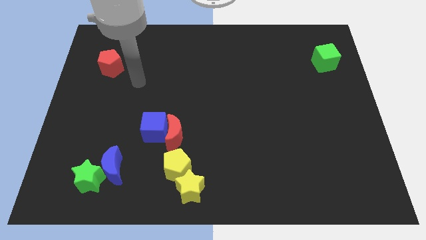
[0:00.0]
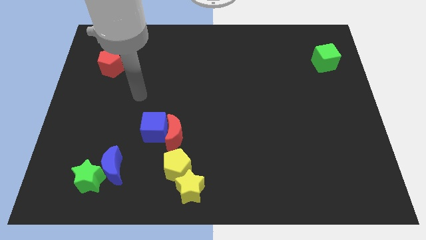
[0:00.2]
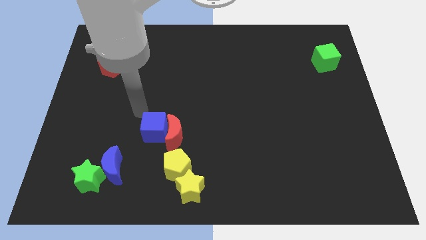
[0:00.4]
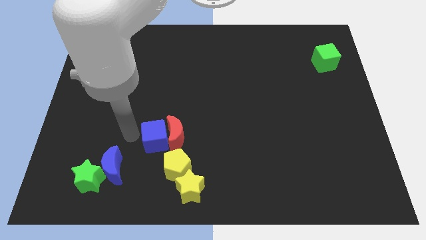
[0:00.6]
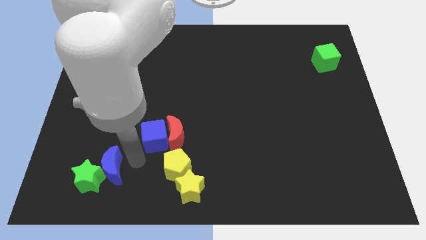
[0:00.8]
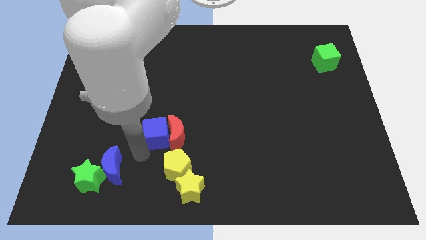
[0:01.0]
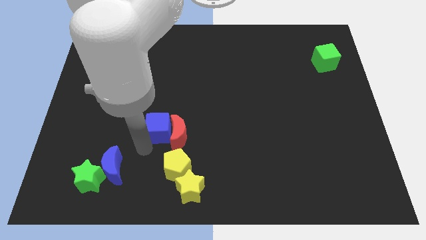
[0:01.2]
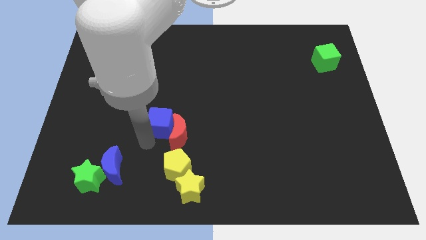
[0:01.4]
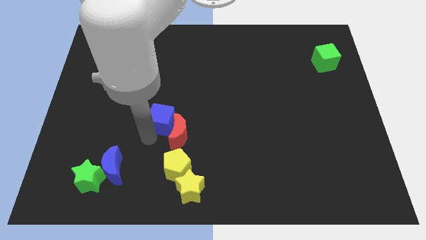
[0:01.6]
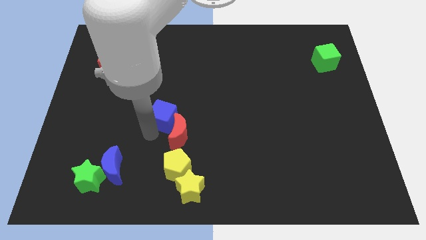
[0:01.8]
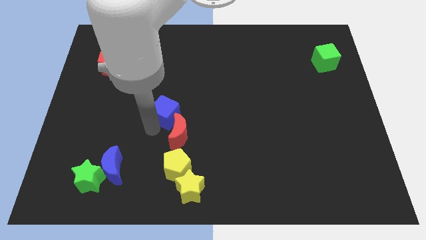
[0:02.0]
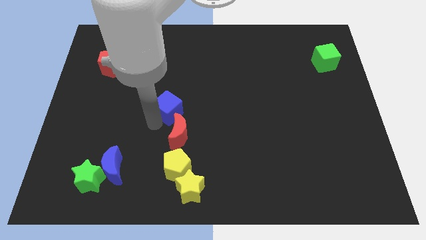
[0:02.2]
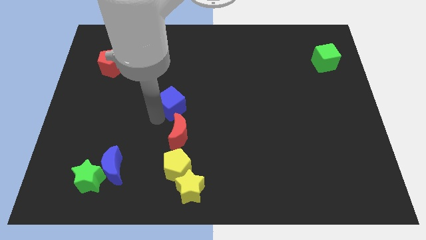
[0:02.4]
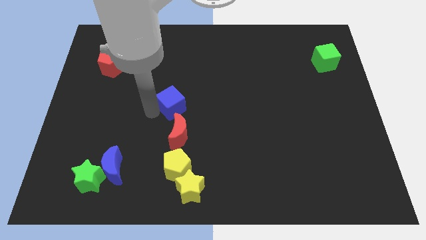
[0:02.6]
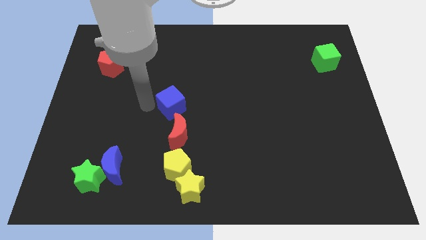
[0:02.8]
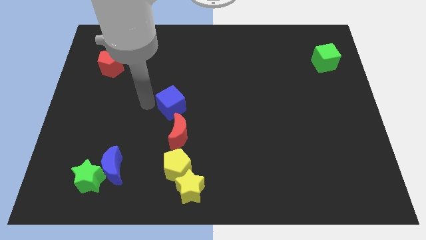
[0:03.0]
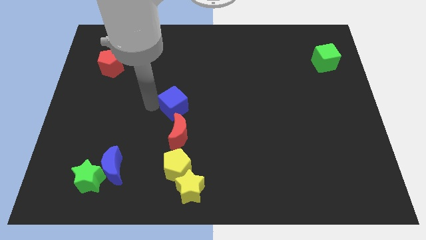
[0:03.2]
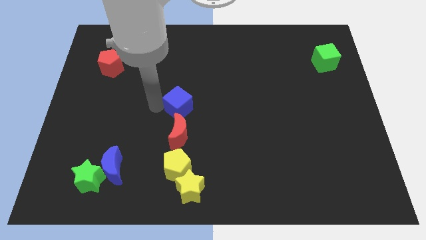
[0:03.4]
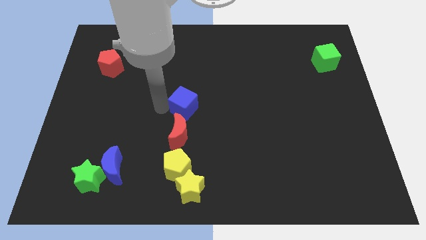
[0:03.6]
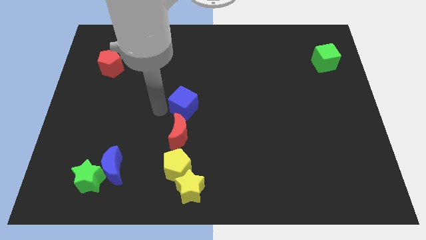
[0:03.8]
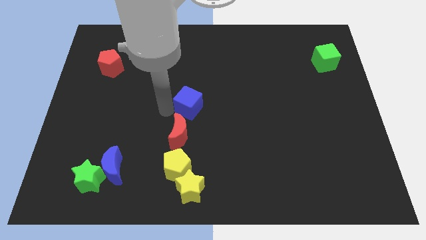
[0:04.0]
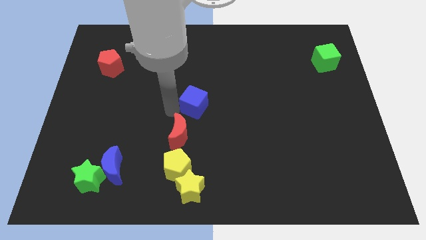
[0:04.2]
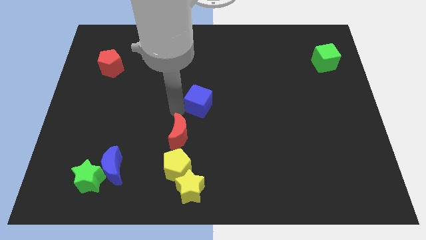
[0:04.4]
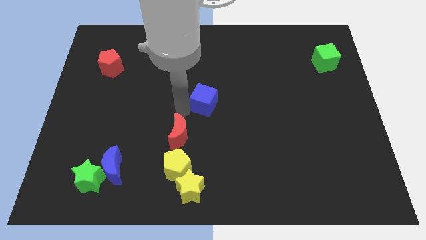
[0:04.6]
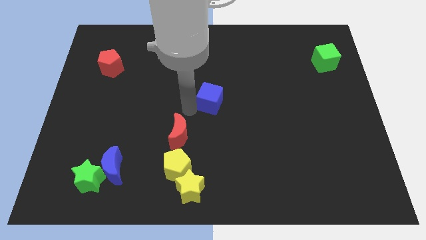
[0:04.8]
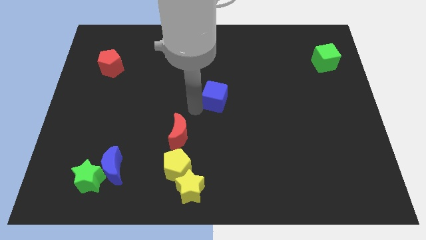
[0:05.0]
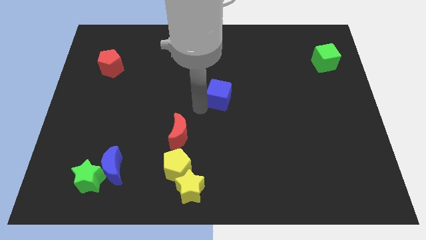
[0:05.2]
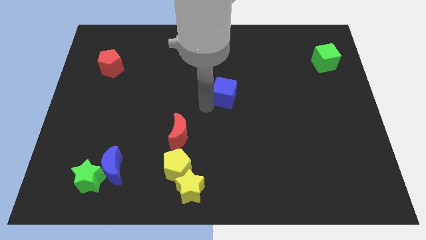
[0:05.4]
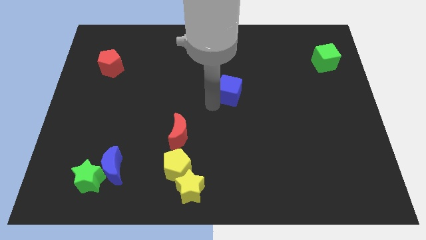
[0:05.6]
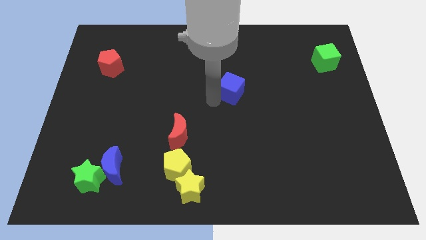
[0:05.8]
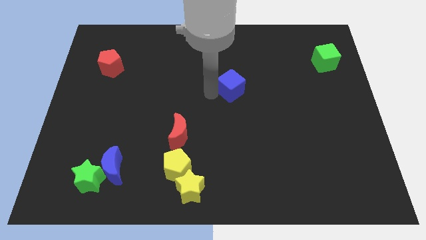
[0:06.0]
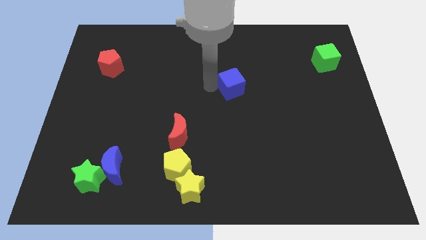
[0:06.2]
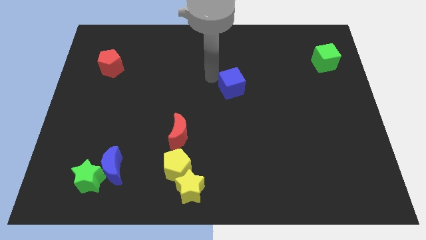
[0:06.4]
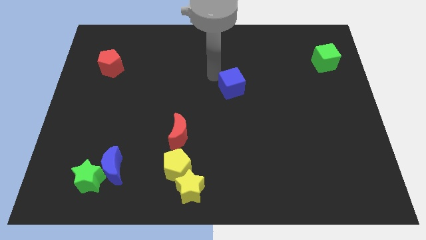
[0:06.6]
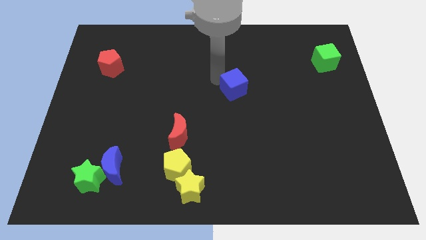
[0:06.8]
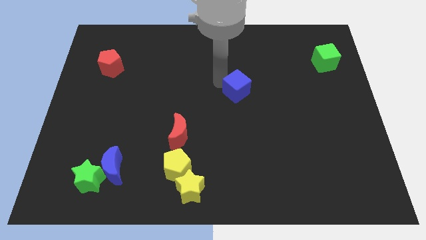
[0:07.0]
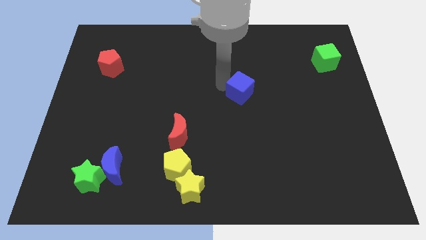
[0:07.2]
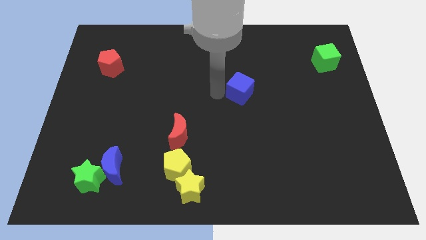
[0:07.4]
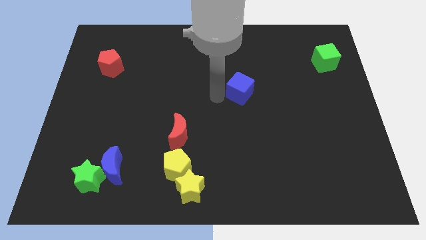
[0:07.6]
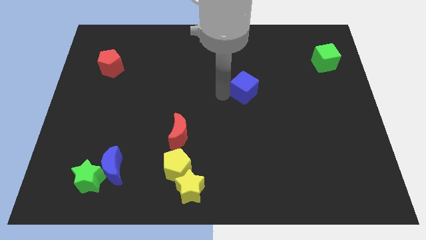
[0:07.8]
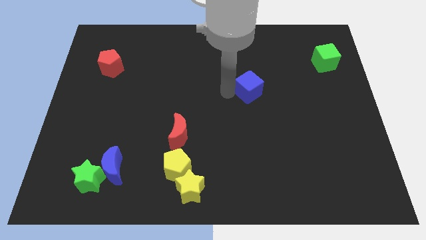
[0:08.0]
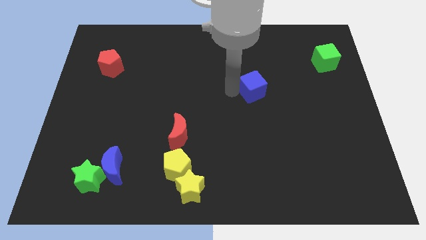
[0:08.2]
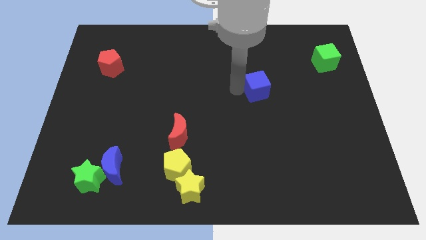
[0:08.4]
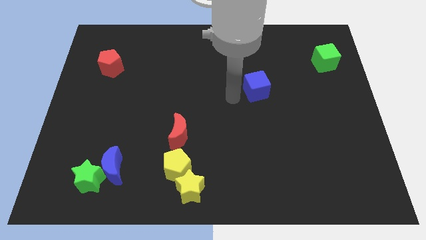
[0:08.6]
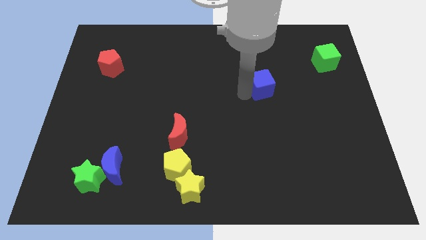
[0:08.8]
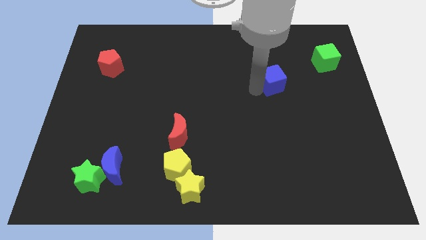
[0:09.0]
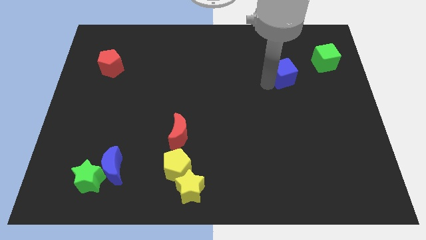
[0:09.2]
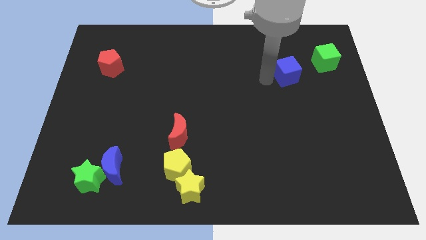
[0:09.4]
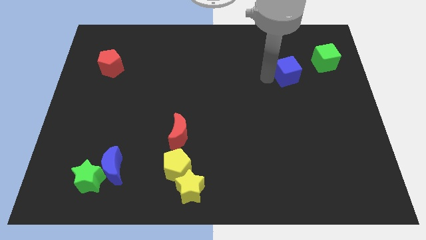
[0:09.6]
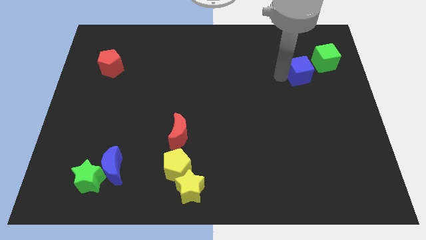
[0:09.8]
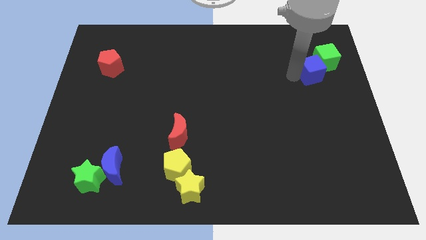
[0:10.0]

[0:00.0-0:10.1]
move the blue cube close to the green cube

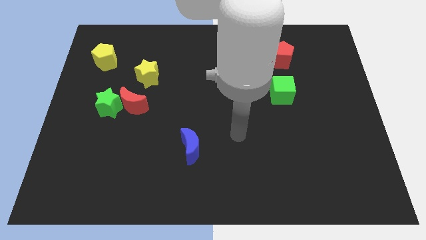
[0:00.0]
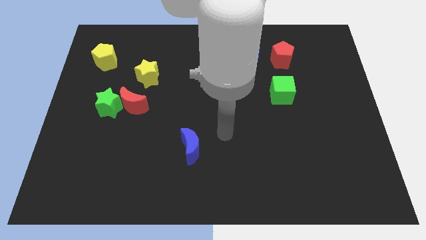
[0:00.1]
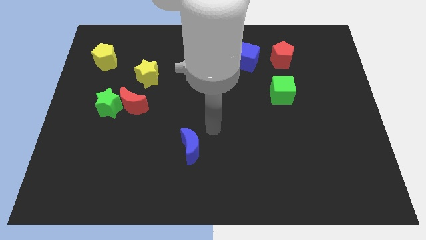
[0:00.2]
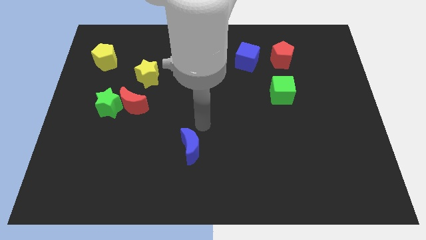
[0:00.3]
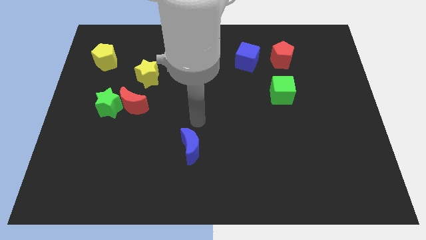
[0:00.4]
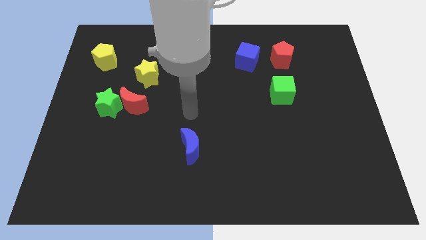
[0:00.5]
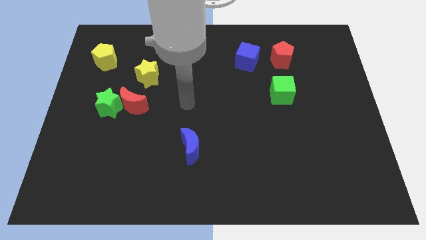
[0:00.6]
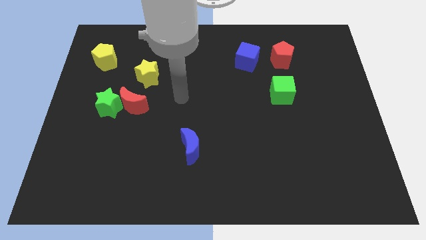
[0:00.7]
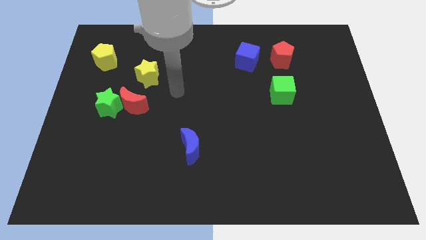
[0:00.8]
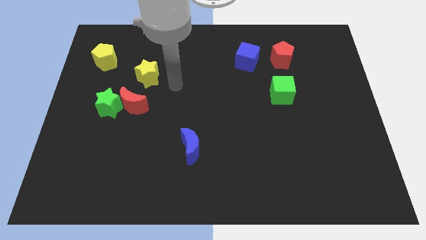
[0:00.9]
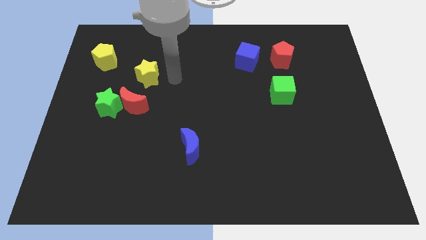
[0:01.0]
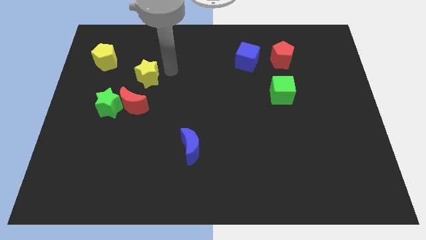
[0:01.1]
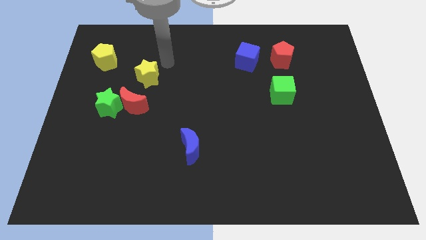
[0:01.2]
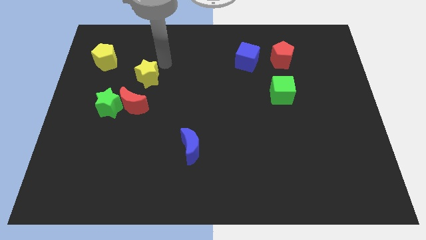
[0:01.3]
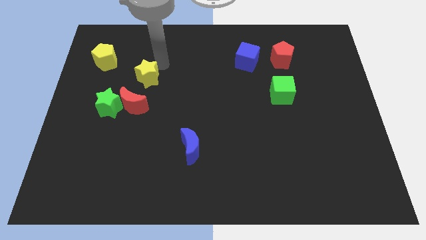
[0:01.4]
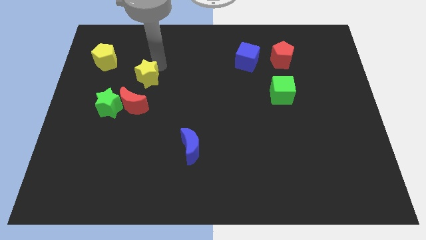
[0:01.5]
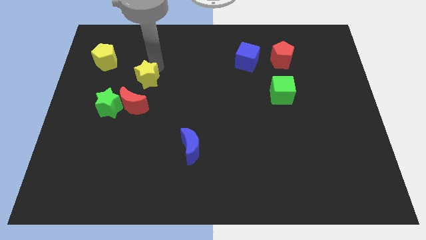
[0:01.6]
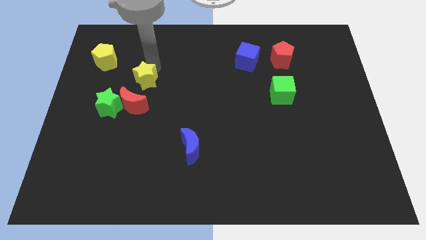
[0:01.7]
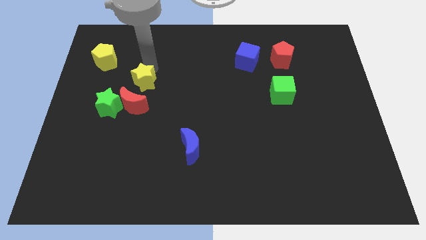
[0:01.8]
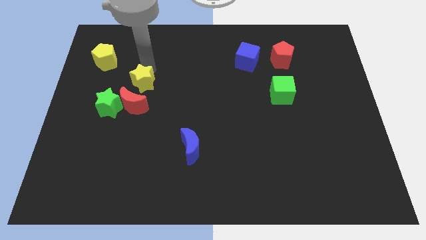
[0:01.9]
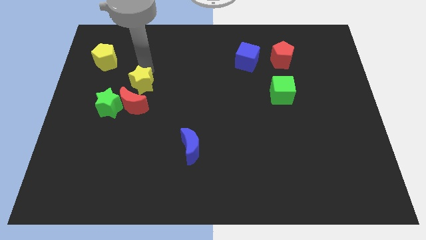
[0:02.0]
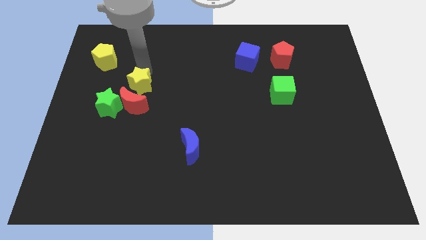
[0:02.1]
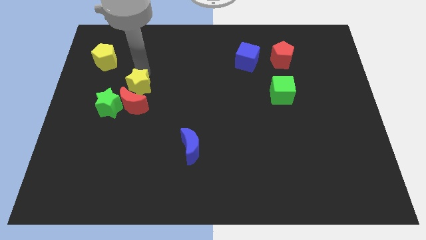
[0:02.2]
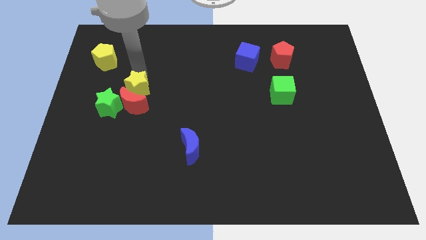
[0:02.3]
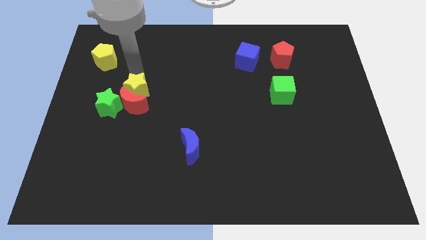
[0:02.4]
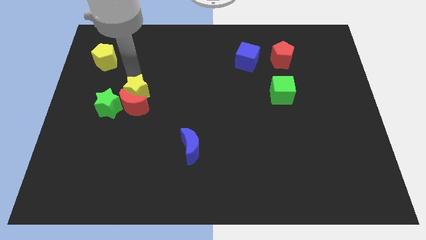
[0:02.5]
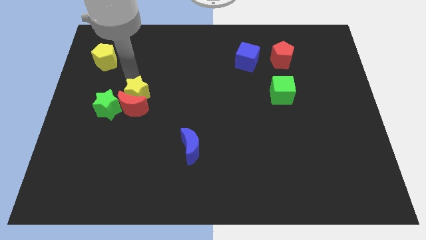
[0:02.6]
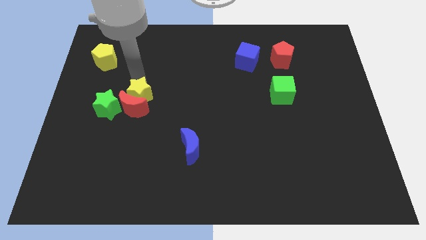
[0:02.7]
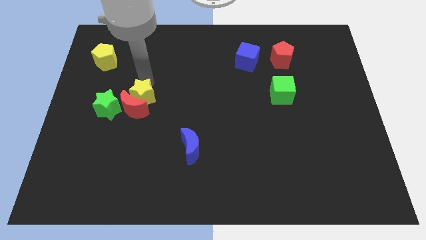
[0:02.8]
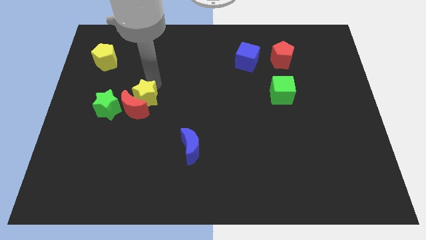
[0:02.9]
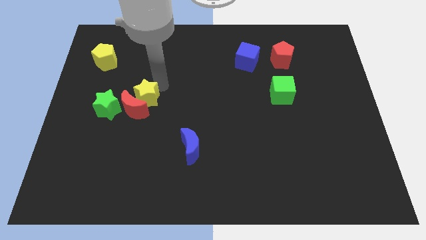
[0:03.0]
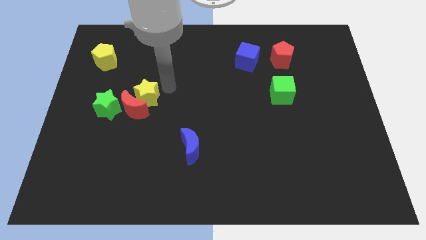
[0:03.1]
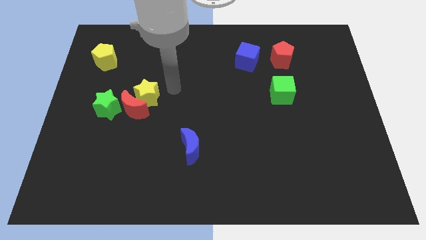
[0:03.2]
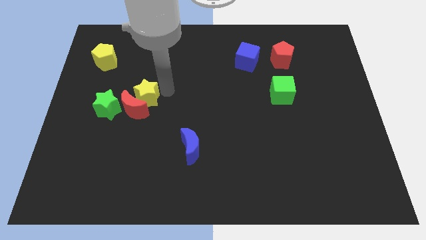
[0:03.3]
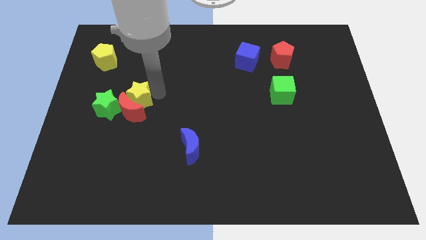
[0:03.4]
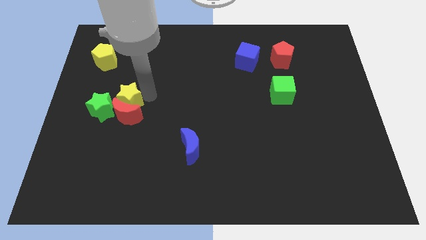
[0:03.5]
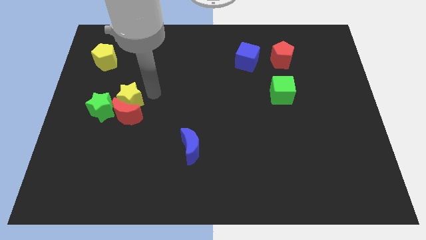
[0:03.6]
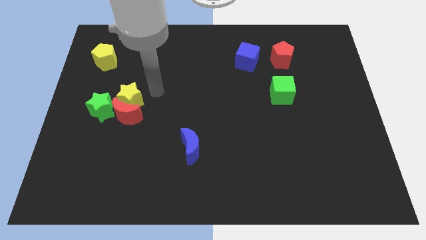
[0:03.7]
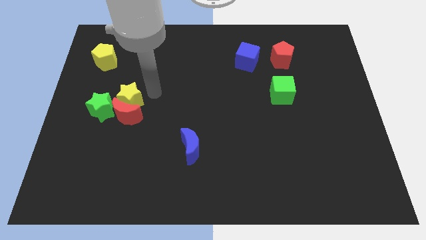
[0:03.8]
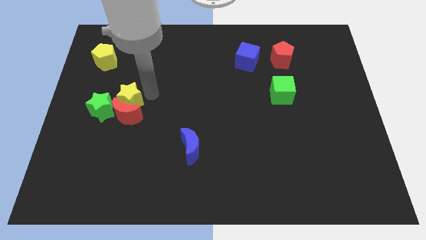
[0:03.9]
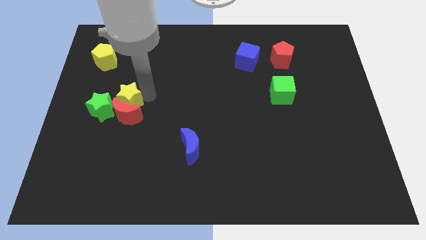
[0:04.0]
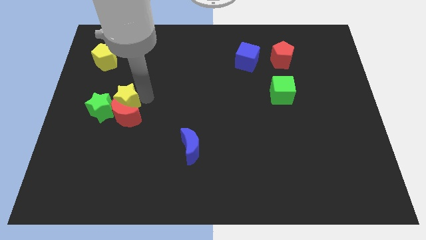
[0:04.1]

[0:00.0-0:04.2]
slide the yellow star towards the green star
